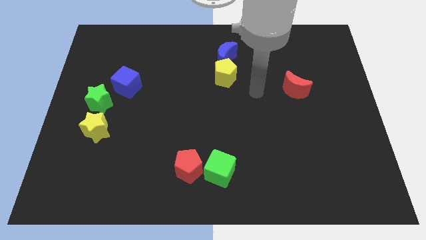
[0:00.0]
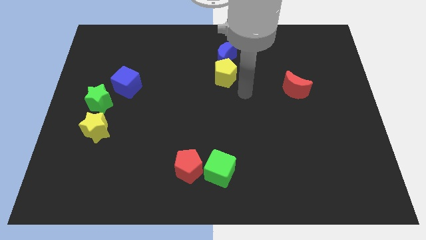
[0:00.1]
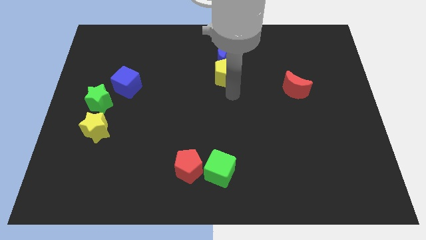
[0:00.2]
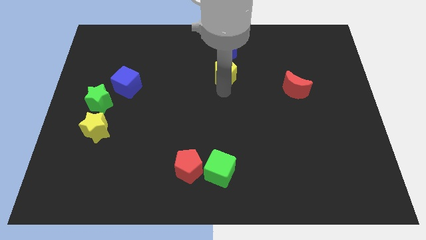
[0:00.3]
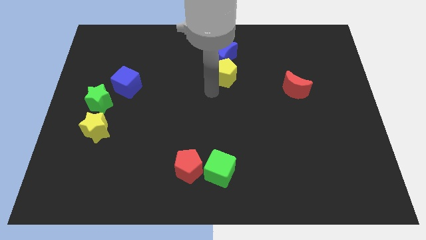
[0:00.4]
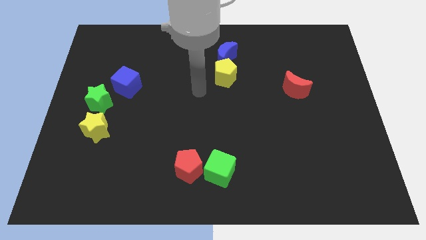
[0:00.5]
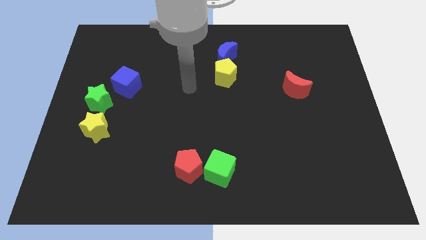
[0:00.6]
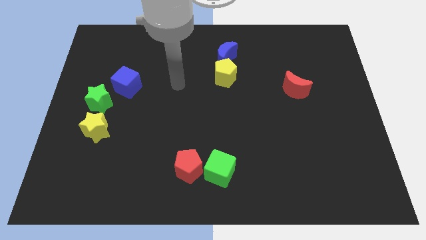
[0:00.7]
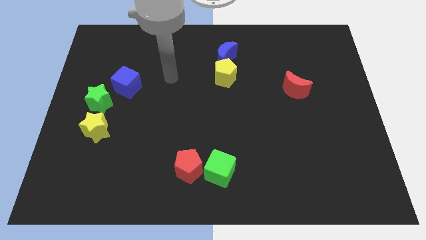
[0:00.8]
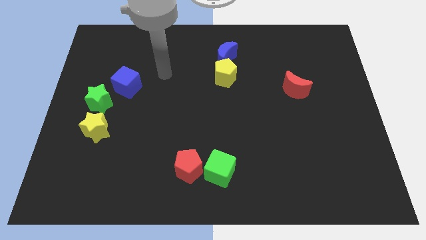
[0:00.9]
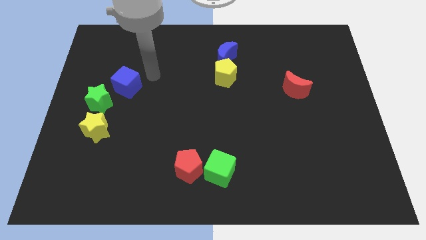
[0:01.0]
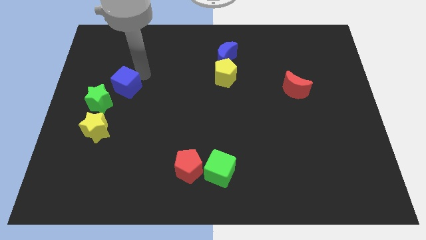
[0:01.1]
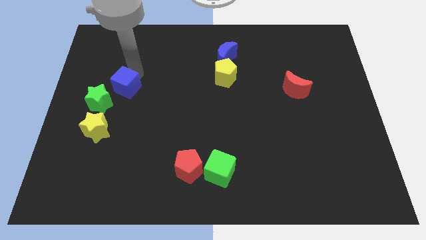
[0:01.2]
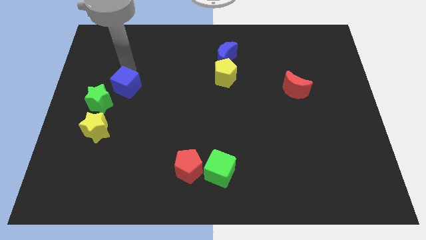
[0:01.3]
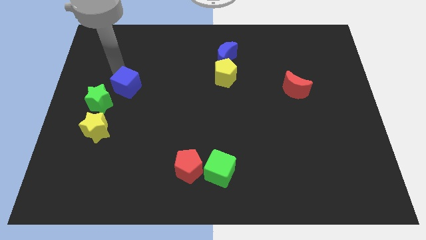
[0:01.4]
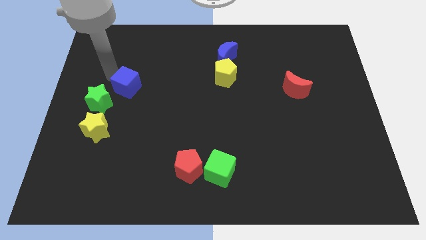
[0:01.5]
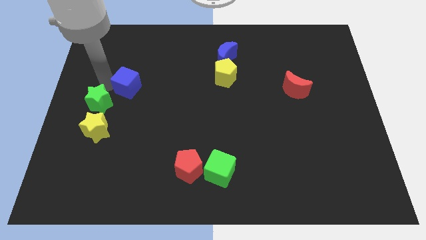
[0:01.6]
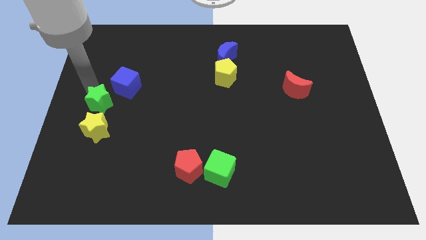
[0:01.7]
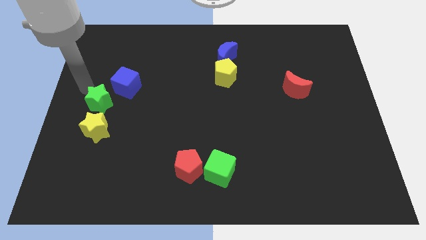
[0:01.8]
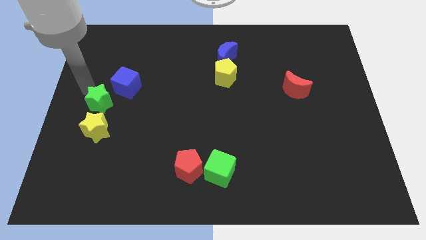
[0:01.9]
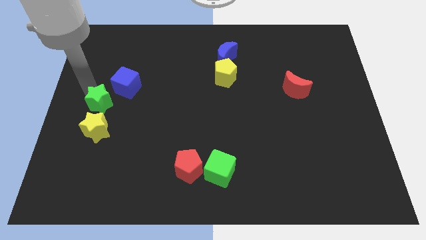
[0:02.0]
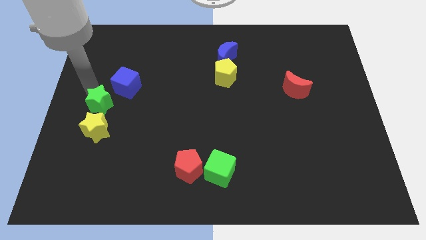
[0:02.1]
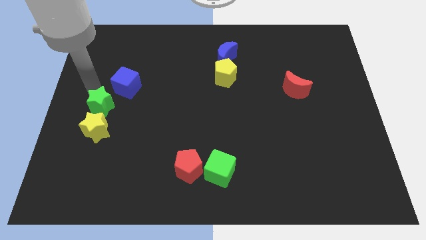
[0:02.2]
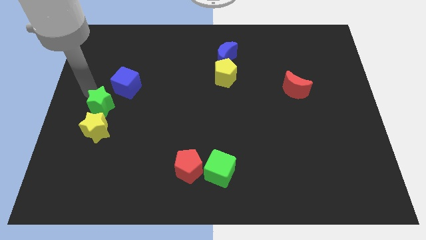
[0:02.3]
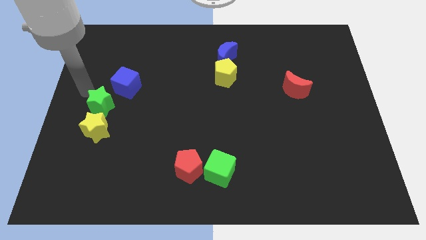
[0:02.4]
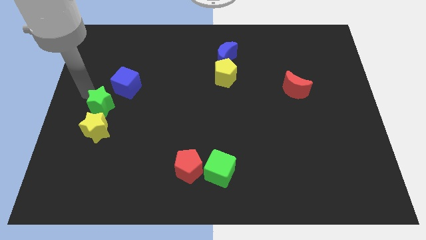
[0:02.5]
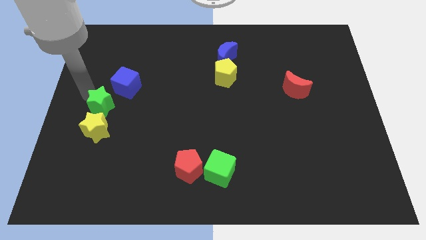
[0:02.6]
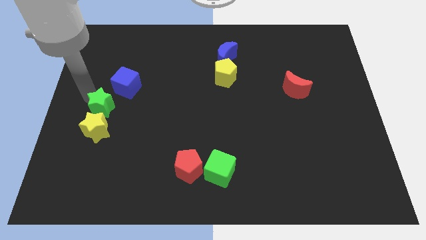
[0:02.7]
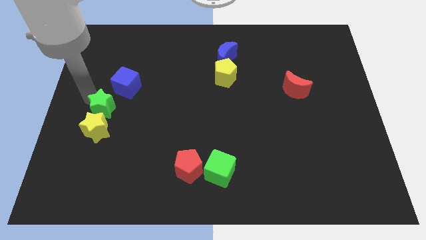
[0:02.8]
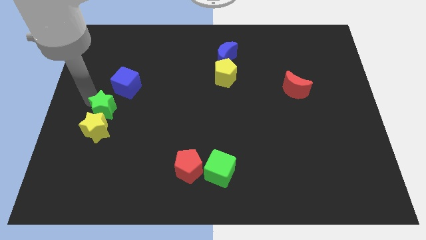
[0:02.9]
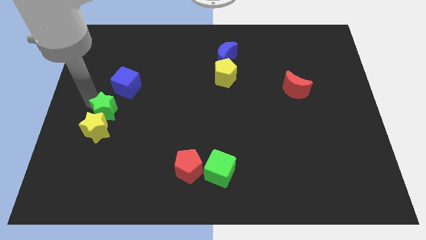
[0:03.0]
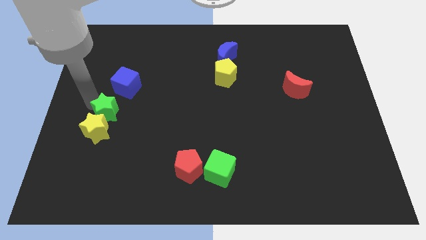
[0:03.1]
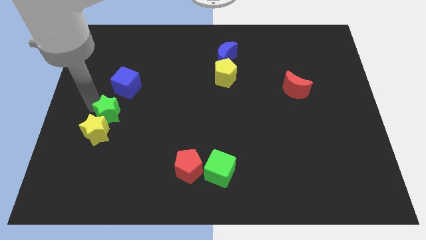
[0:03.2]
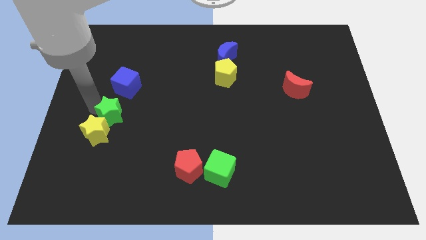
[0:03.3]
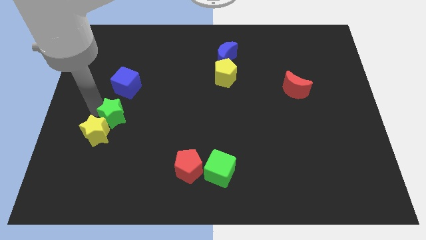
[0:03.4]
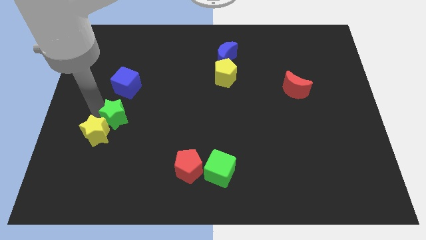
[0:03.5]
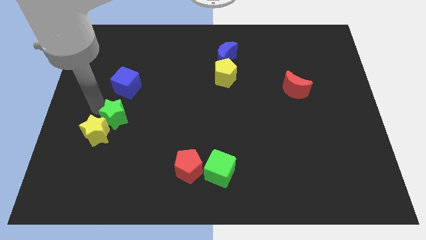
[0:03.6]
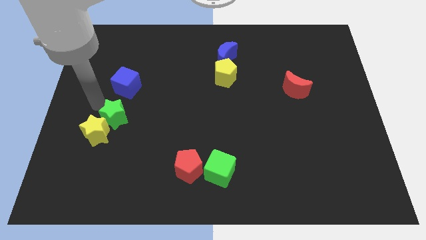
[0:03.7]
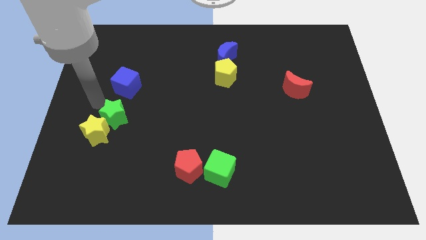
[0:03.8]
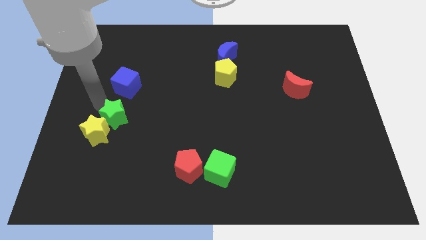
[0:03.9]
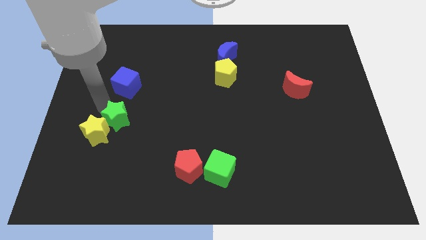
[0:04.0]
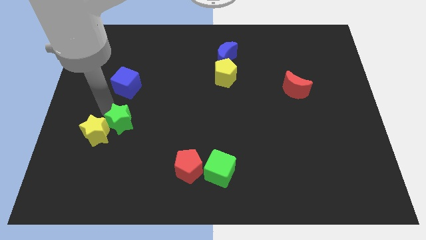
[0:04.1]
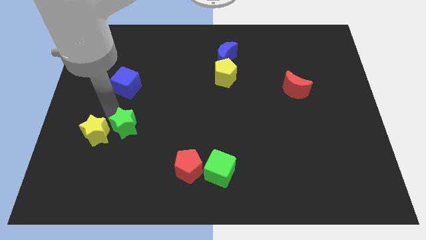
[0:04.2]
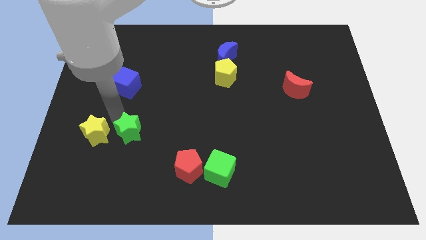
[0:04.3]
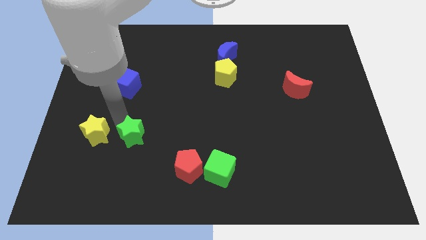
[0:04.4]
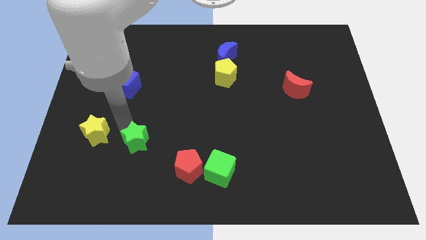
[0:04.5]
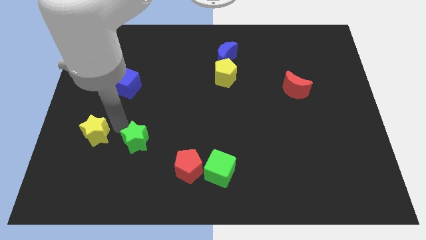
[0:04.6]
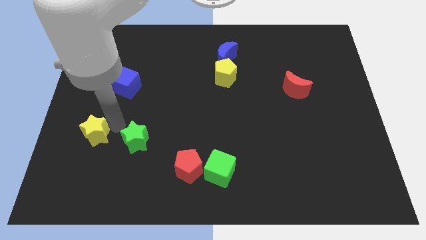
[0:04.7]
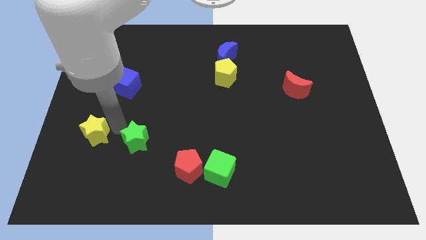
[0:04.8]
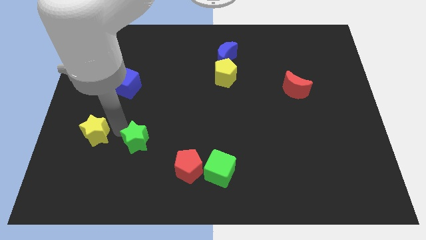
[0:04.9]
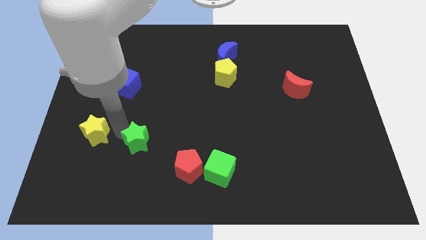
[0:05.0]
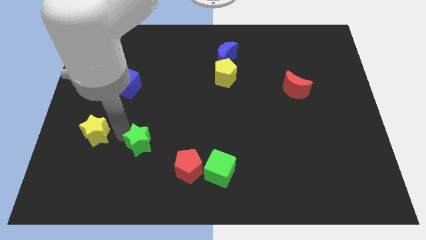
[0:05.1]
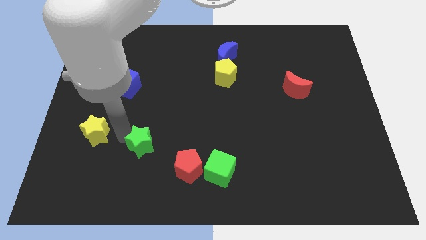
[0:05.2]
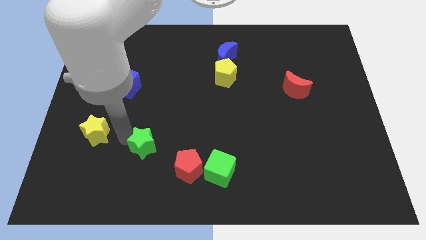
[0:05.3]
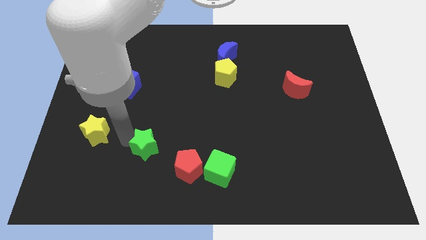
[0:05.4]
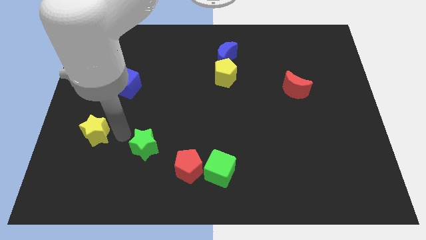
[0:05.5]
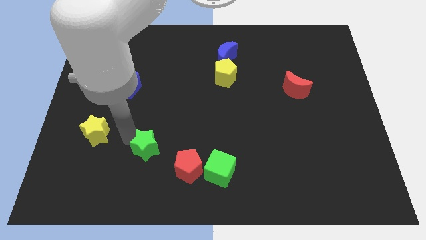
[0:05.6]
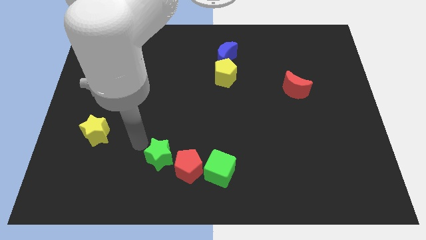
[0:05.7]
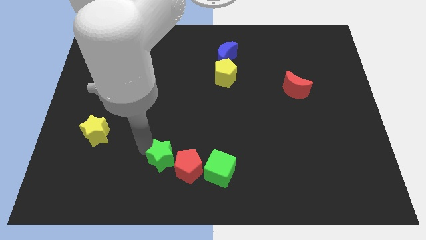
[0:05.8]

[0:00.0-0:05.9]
put the green star next to the red pentagon

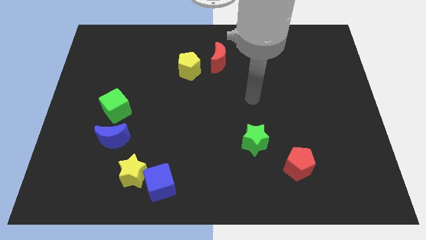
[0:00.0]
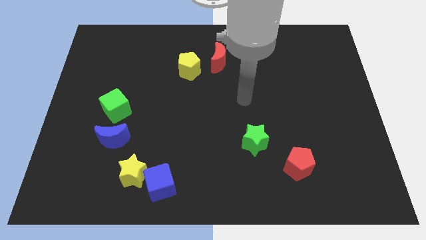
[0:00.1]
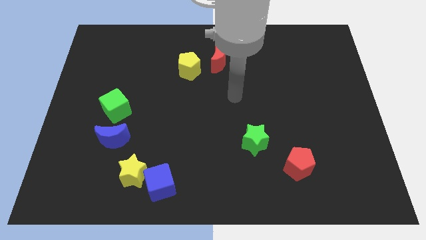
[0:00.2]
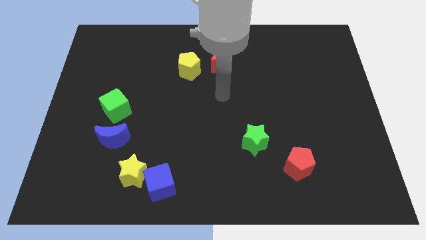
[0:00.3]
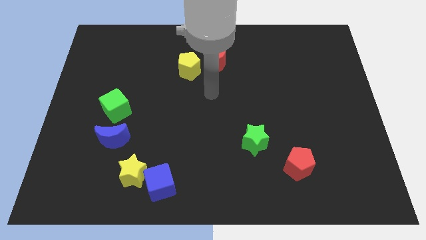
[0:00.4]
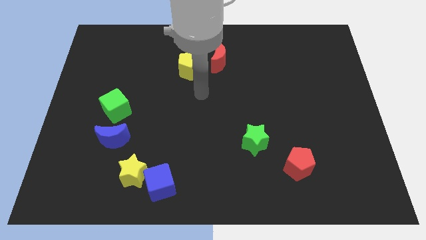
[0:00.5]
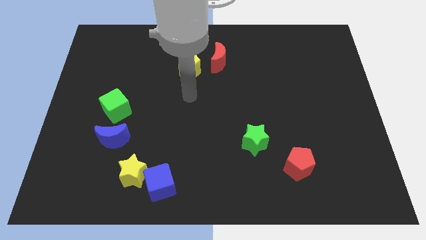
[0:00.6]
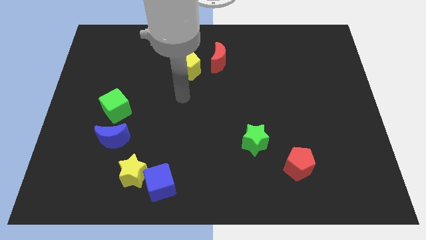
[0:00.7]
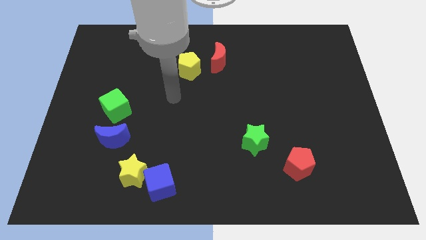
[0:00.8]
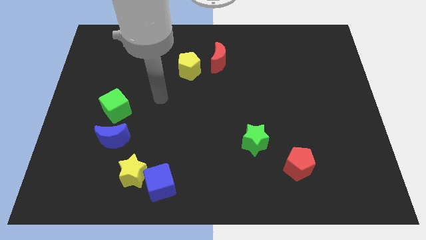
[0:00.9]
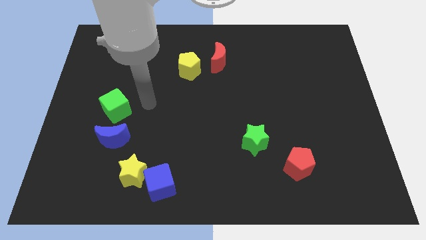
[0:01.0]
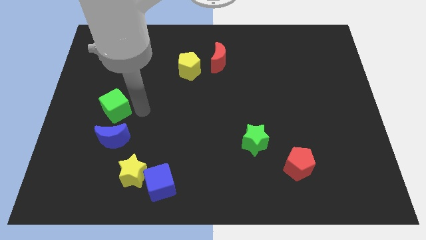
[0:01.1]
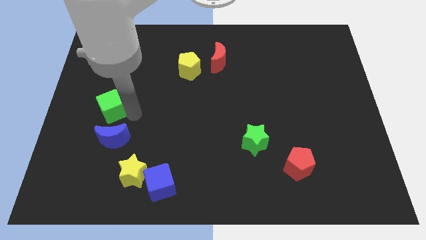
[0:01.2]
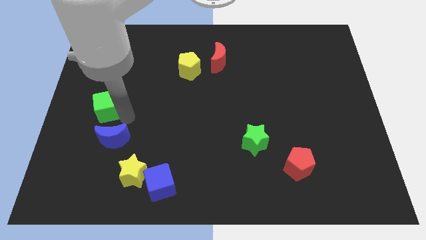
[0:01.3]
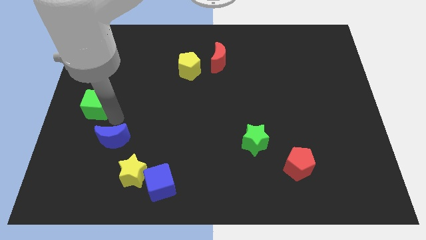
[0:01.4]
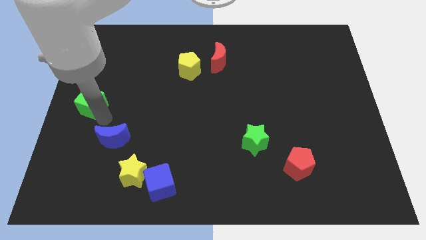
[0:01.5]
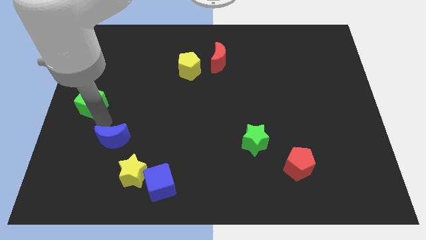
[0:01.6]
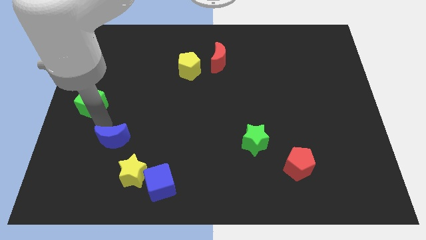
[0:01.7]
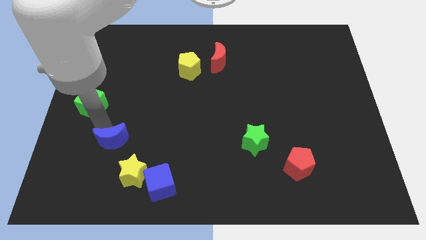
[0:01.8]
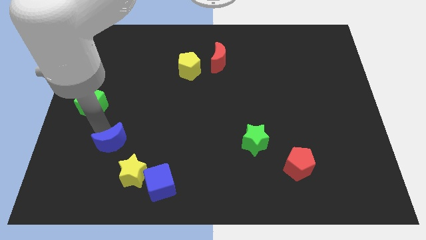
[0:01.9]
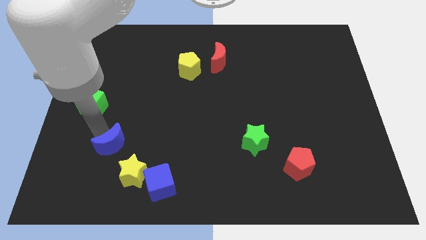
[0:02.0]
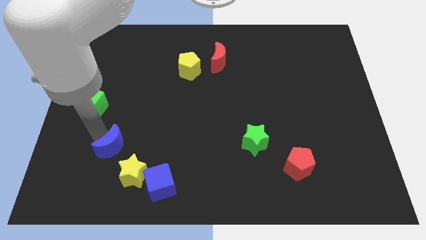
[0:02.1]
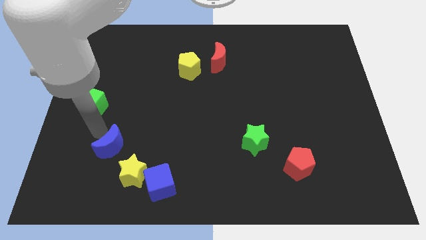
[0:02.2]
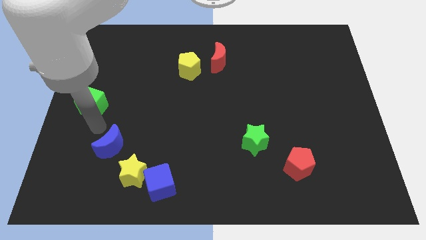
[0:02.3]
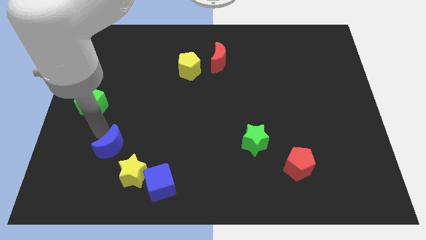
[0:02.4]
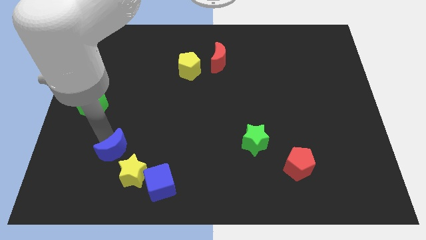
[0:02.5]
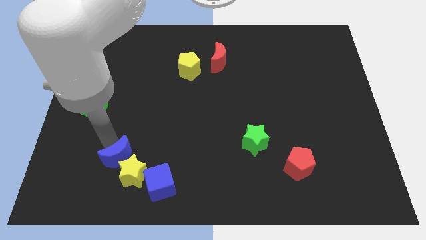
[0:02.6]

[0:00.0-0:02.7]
slide the blue moon close to the yellow star

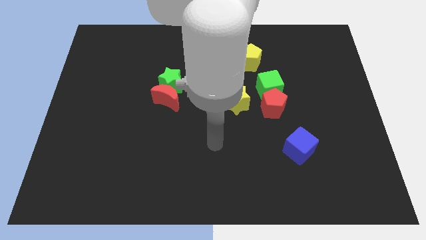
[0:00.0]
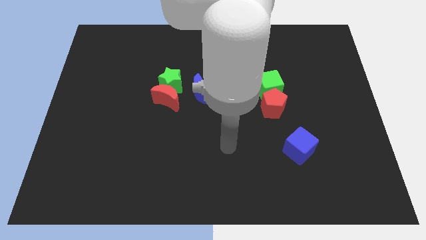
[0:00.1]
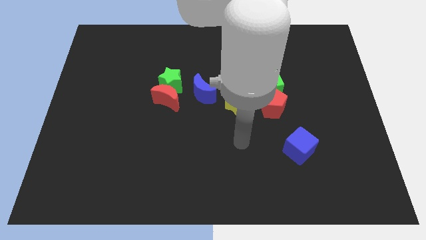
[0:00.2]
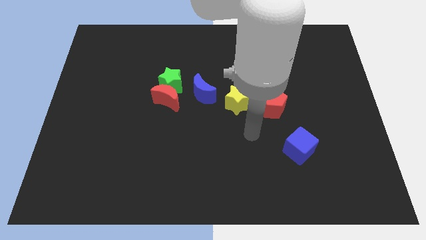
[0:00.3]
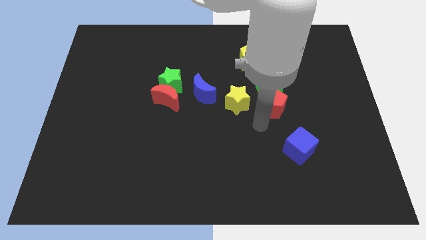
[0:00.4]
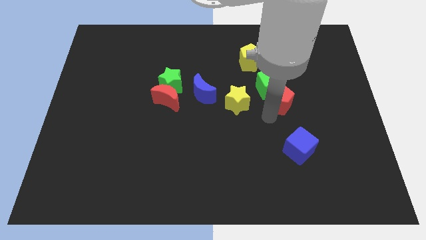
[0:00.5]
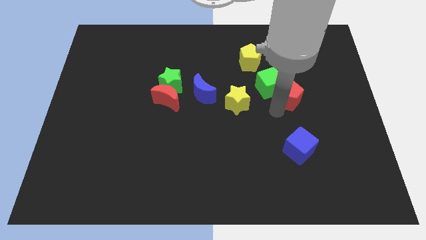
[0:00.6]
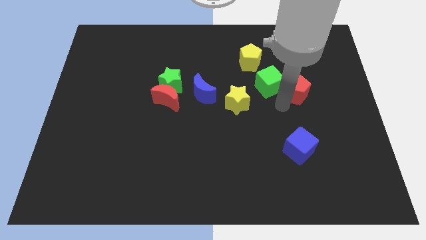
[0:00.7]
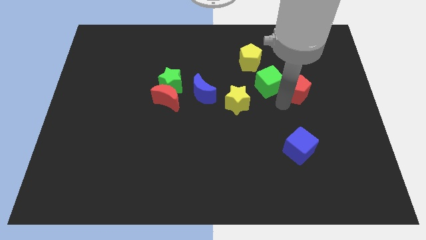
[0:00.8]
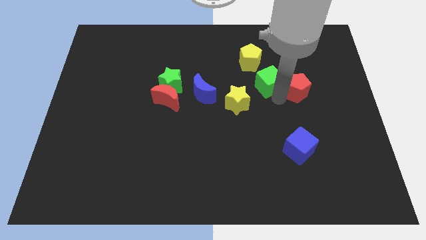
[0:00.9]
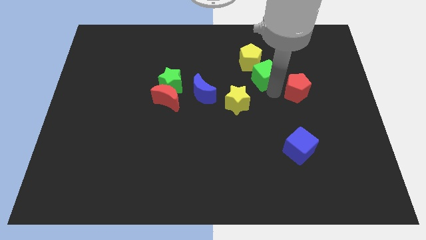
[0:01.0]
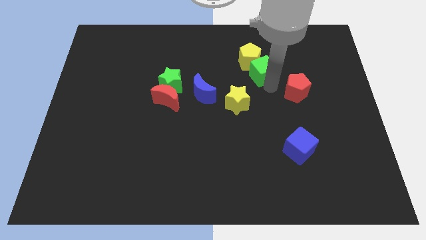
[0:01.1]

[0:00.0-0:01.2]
push the green cube to the yellow pentagon
